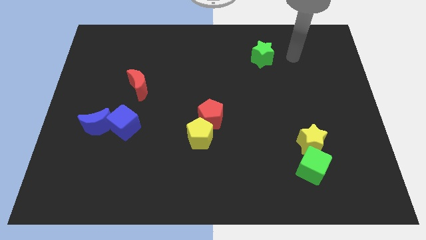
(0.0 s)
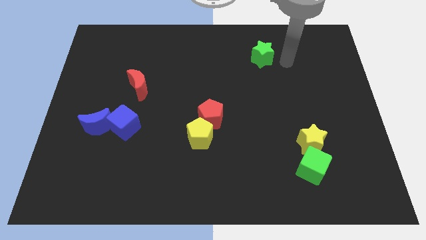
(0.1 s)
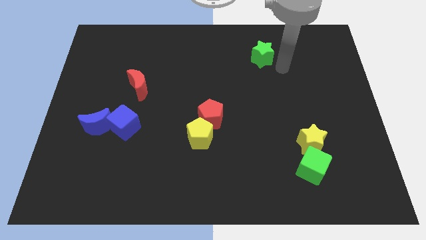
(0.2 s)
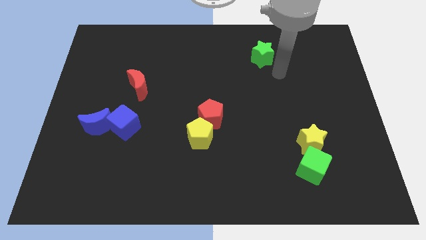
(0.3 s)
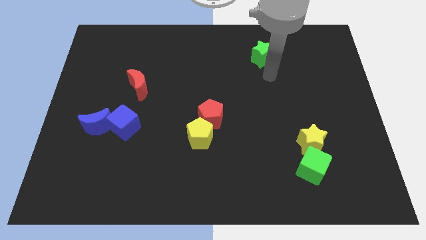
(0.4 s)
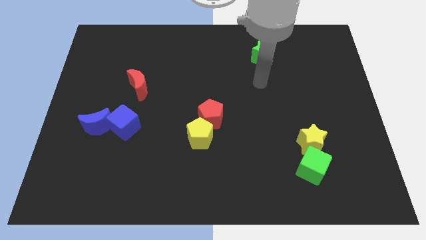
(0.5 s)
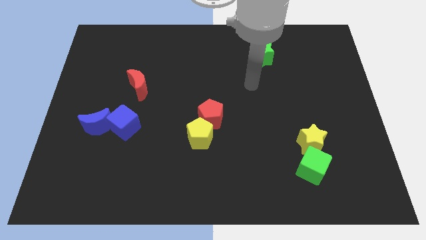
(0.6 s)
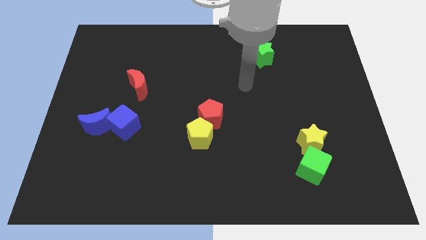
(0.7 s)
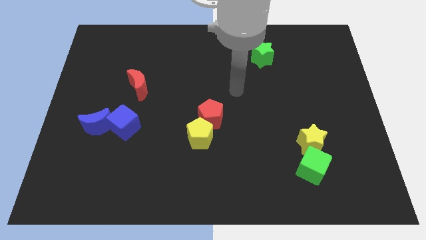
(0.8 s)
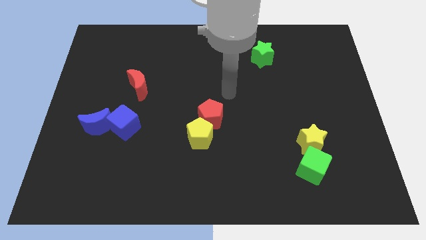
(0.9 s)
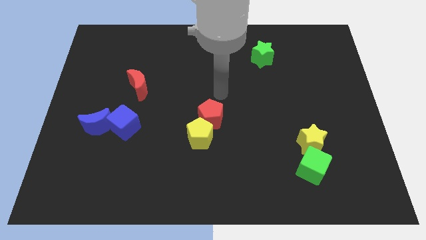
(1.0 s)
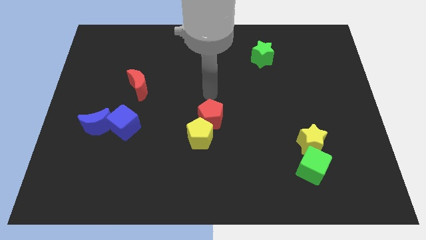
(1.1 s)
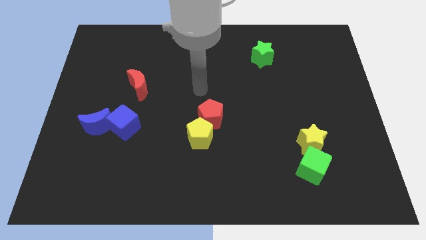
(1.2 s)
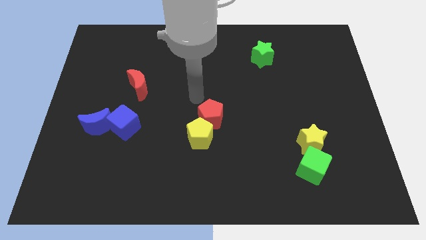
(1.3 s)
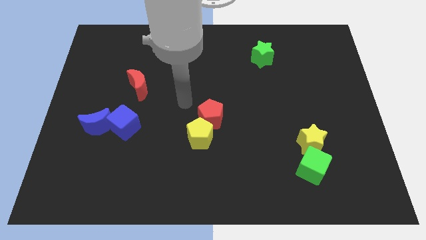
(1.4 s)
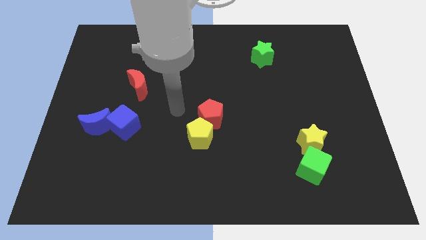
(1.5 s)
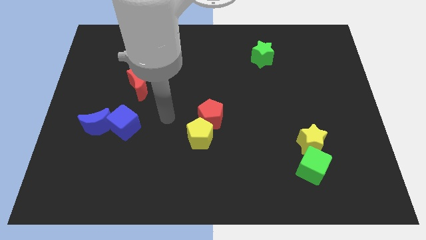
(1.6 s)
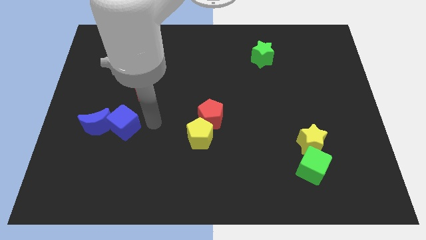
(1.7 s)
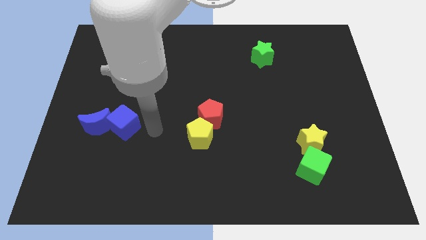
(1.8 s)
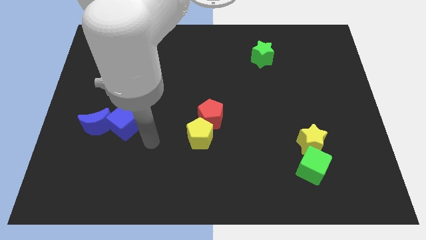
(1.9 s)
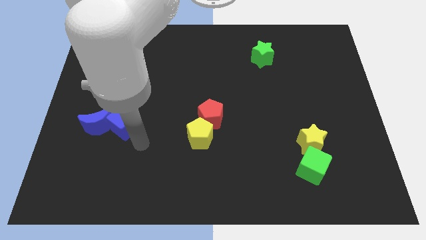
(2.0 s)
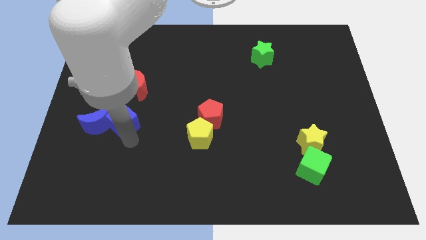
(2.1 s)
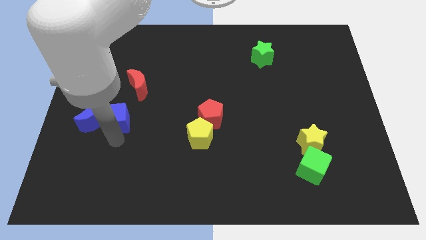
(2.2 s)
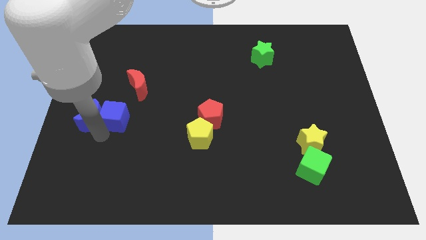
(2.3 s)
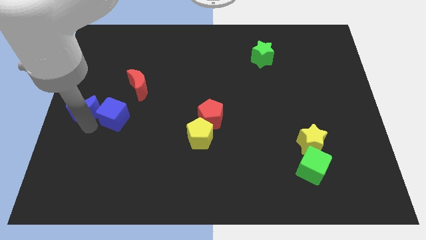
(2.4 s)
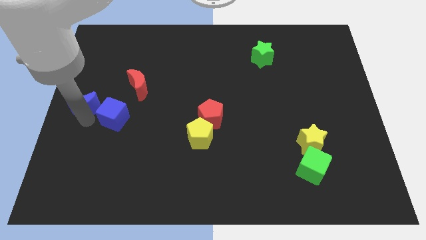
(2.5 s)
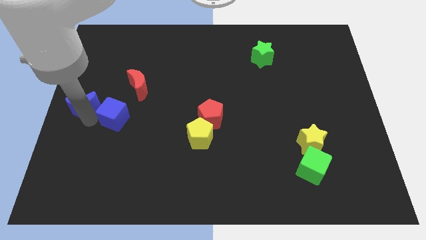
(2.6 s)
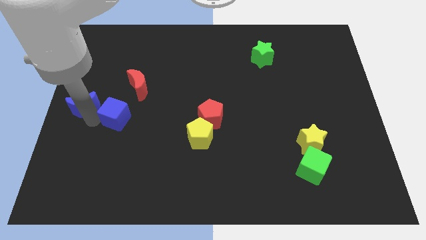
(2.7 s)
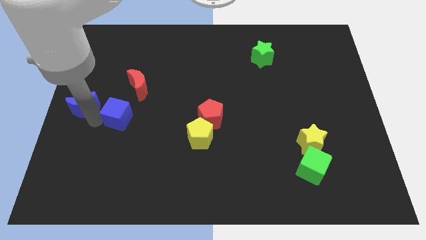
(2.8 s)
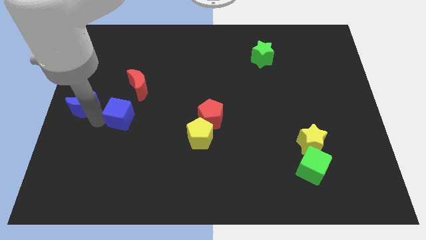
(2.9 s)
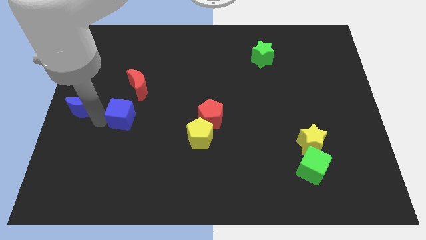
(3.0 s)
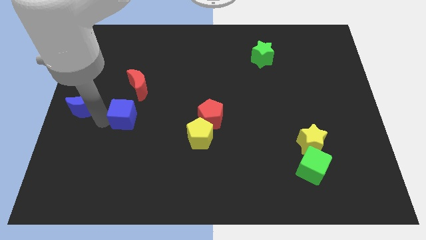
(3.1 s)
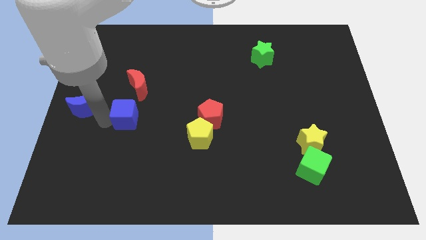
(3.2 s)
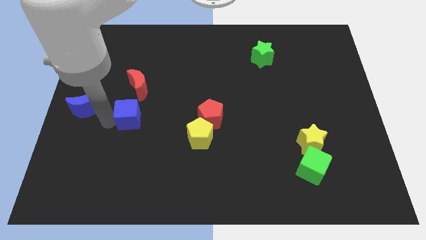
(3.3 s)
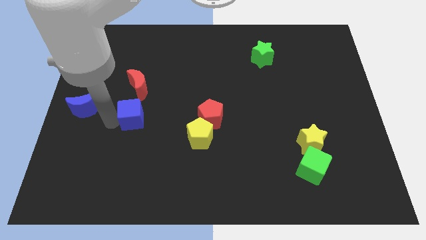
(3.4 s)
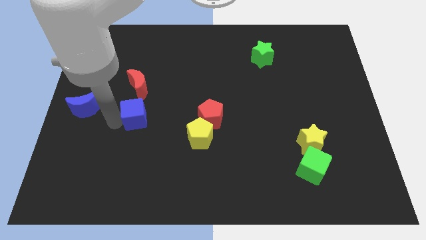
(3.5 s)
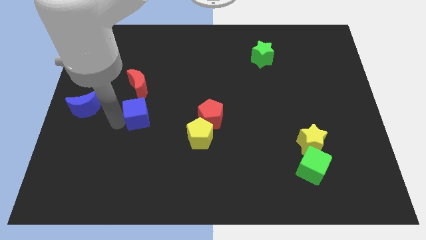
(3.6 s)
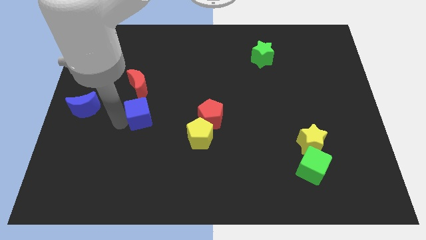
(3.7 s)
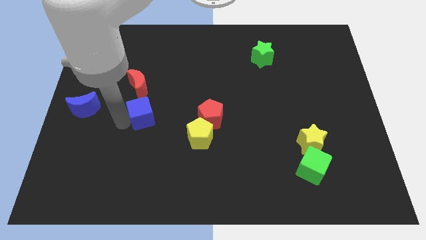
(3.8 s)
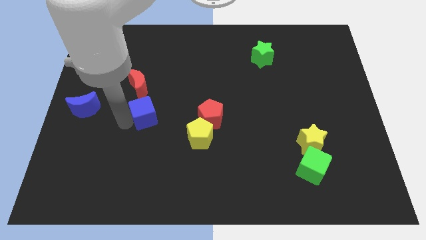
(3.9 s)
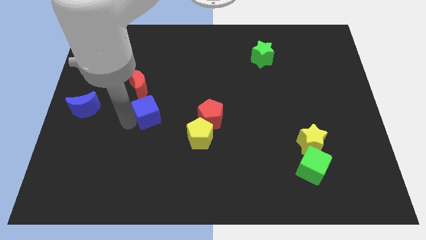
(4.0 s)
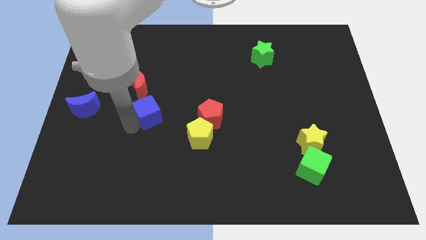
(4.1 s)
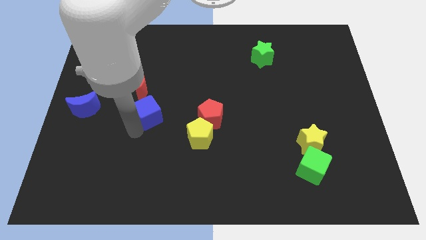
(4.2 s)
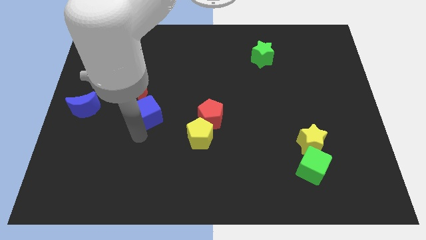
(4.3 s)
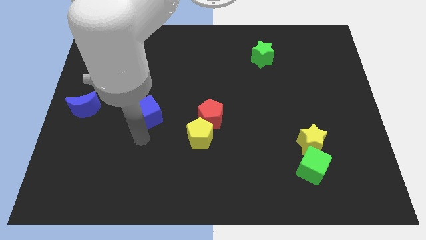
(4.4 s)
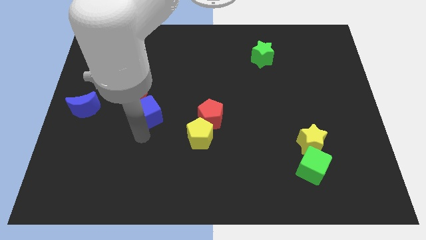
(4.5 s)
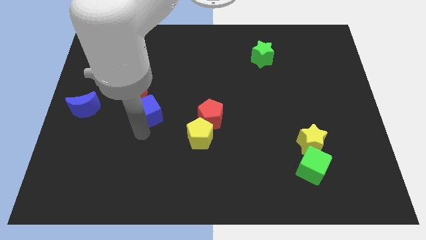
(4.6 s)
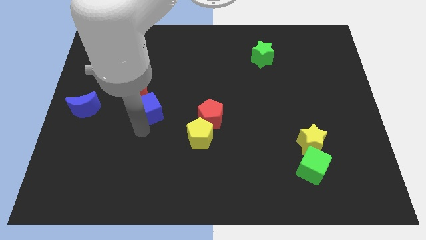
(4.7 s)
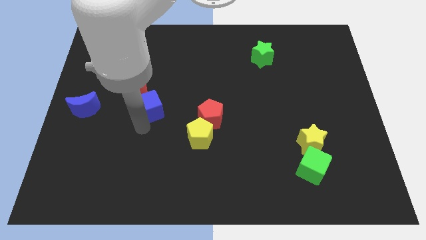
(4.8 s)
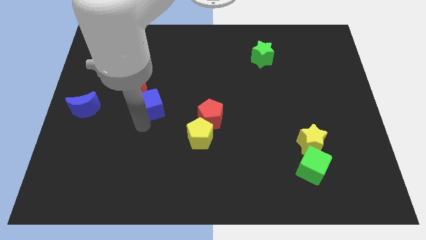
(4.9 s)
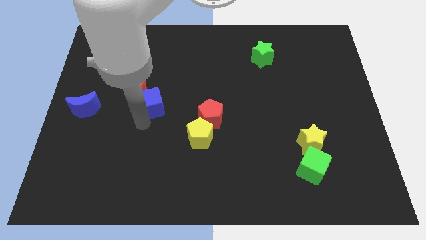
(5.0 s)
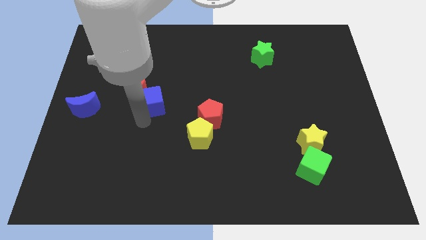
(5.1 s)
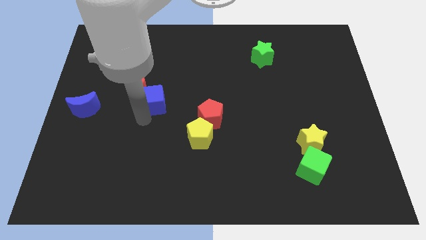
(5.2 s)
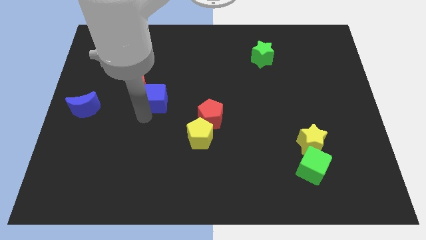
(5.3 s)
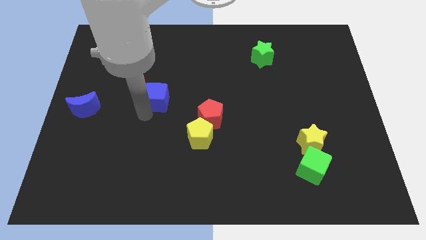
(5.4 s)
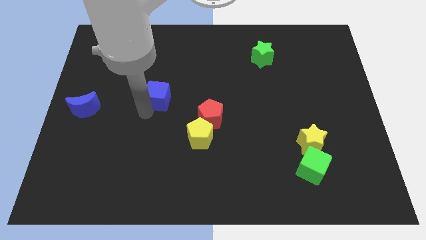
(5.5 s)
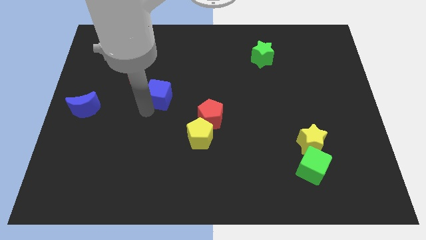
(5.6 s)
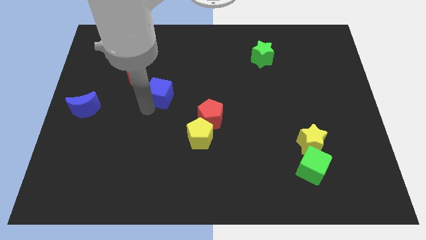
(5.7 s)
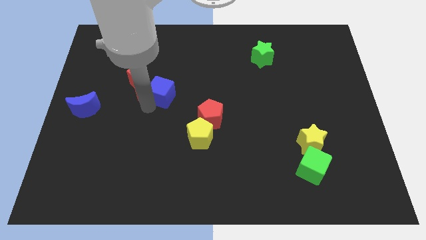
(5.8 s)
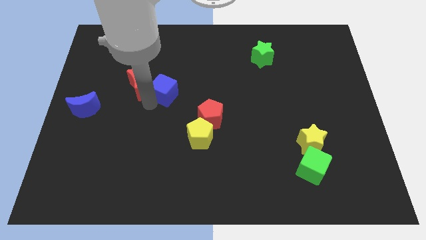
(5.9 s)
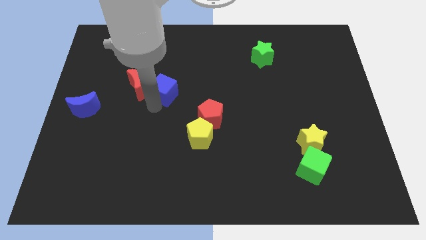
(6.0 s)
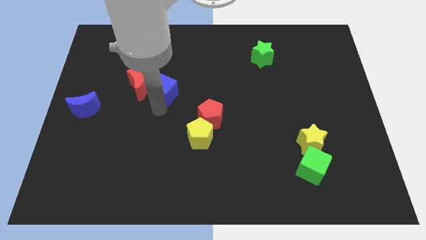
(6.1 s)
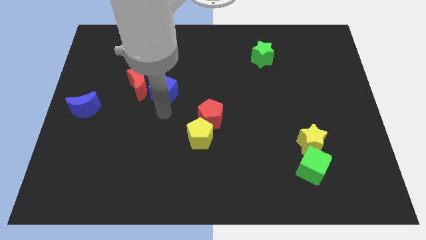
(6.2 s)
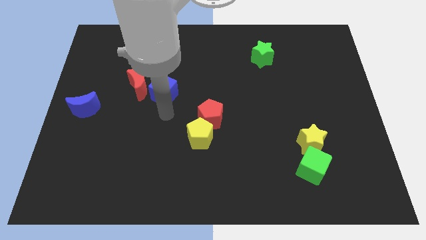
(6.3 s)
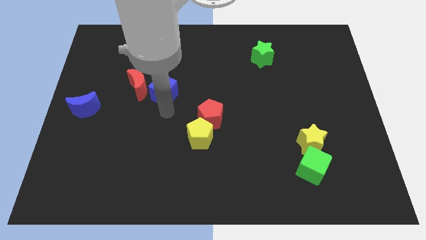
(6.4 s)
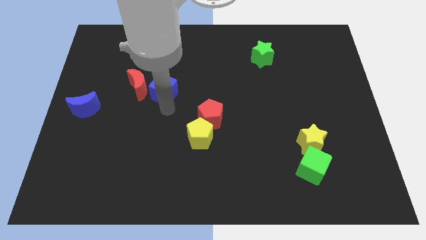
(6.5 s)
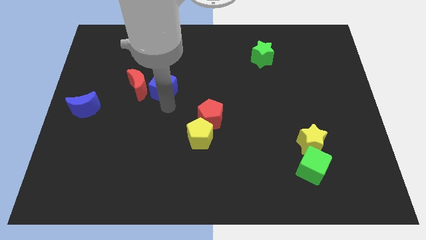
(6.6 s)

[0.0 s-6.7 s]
slide the blue cube to the top right of the red moon
